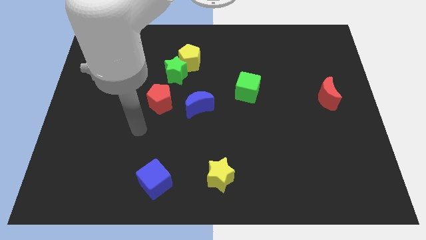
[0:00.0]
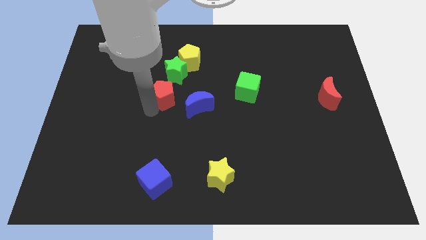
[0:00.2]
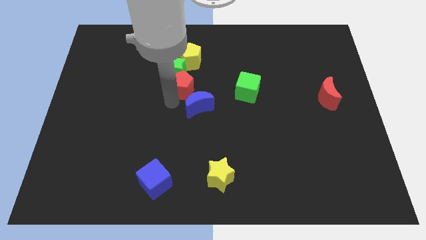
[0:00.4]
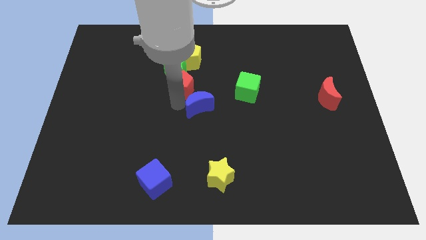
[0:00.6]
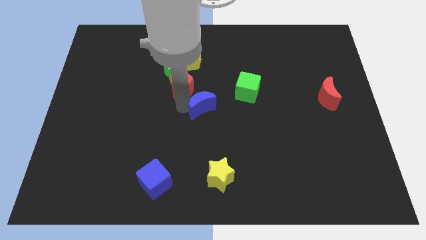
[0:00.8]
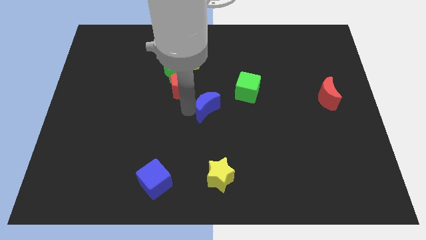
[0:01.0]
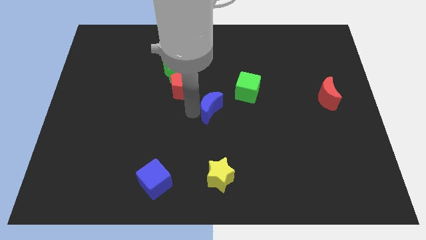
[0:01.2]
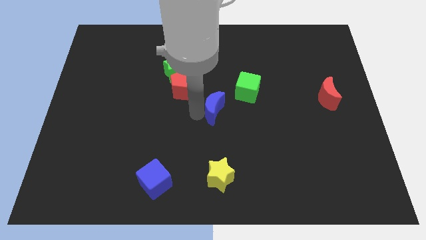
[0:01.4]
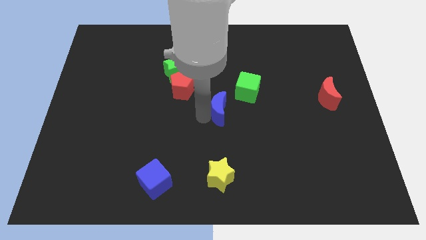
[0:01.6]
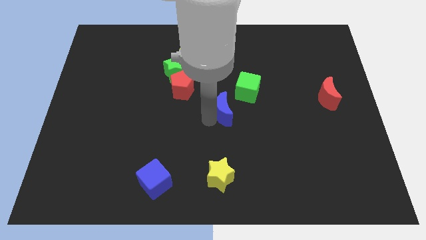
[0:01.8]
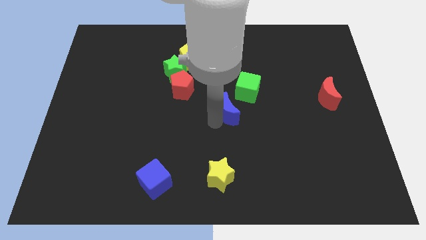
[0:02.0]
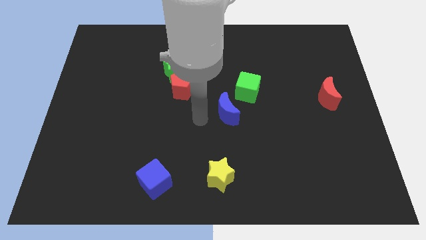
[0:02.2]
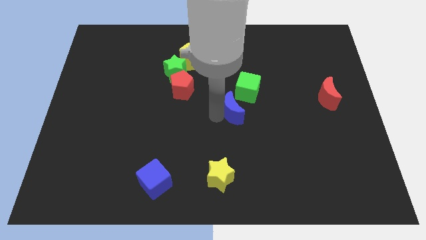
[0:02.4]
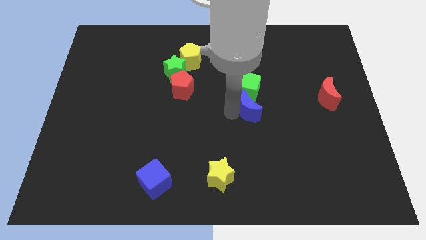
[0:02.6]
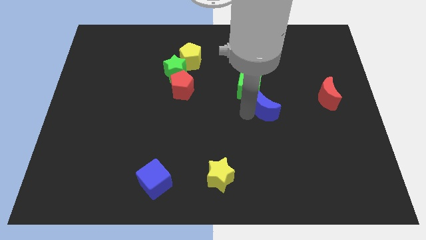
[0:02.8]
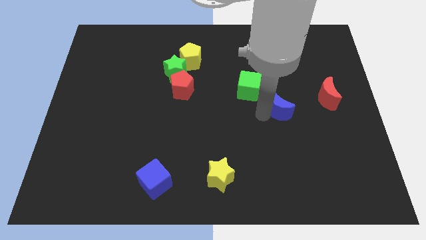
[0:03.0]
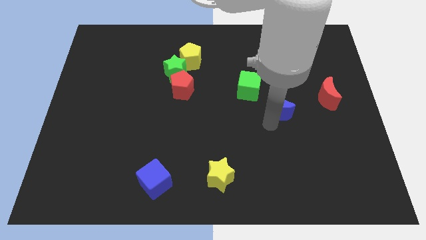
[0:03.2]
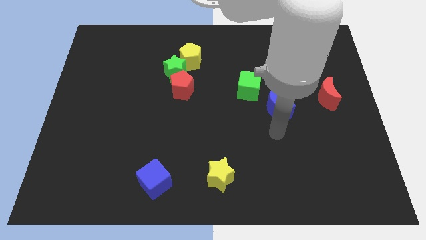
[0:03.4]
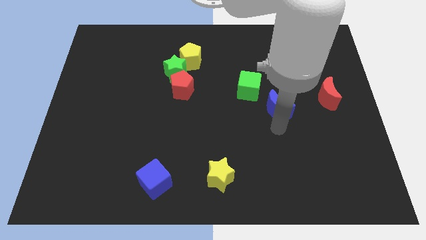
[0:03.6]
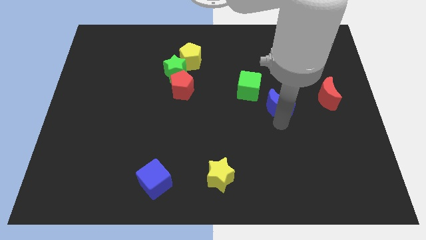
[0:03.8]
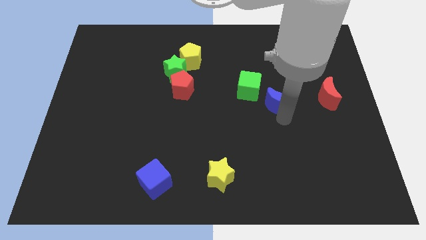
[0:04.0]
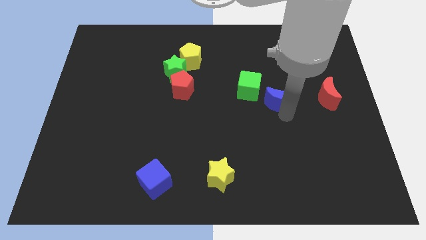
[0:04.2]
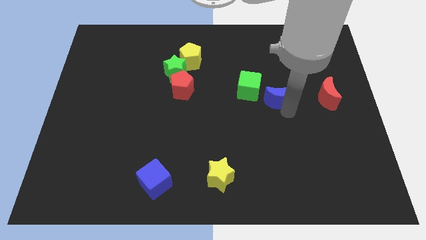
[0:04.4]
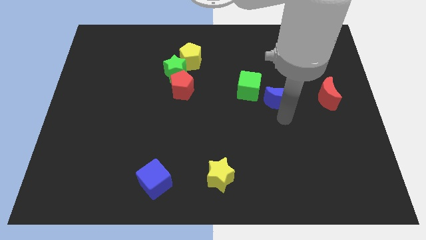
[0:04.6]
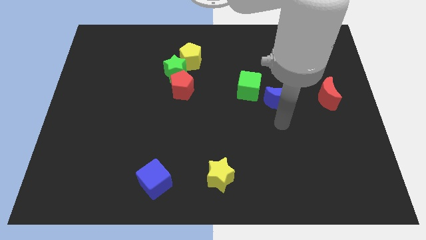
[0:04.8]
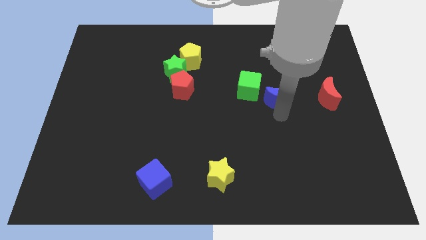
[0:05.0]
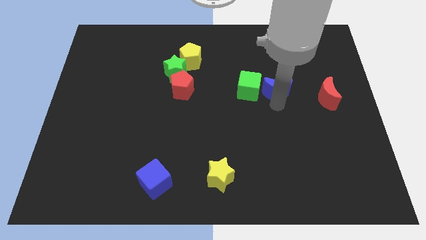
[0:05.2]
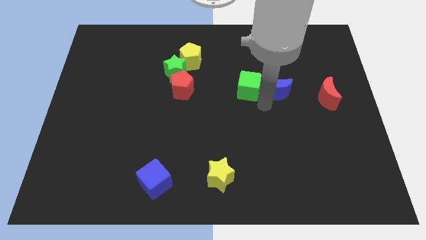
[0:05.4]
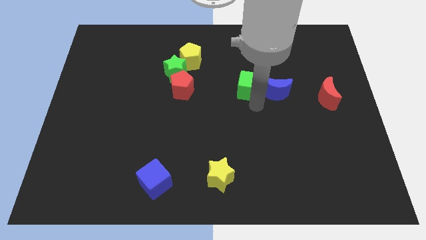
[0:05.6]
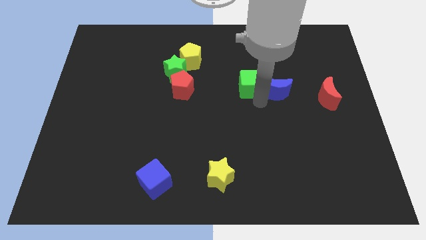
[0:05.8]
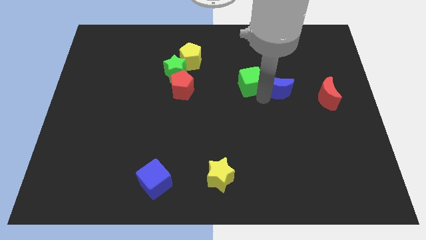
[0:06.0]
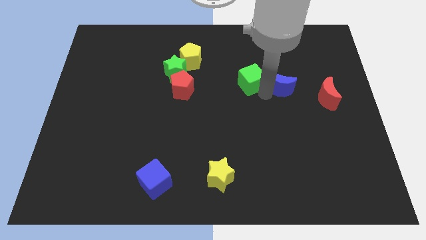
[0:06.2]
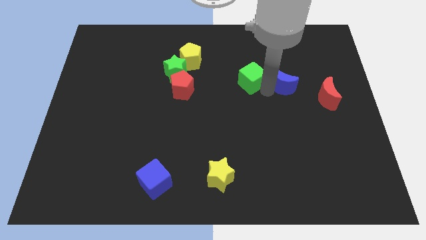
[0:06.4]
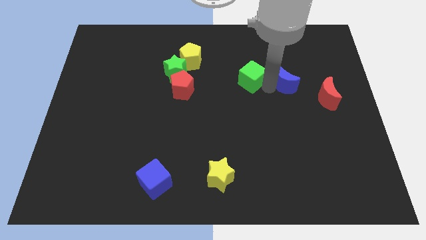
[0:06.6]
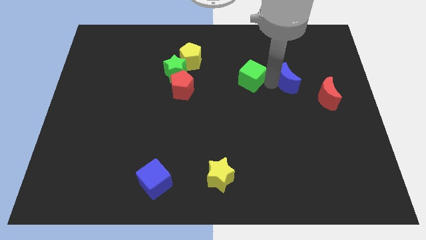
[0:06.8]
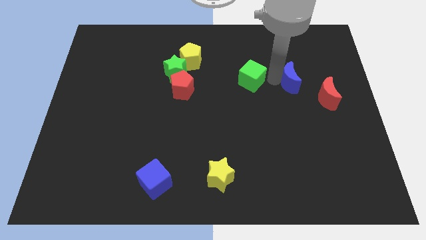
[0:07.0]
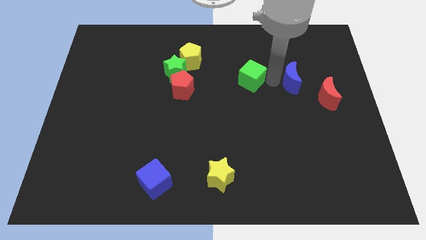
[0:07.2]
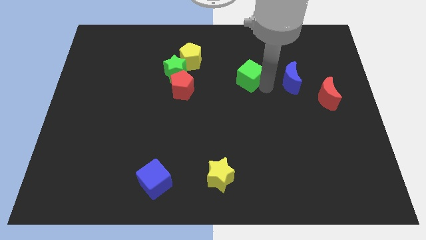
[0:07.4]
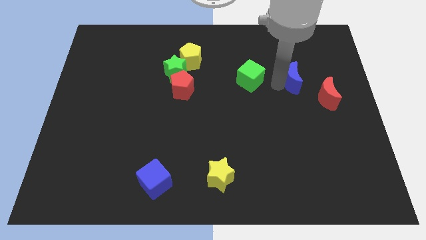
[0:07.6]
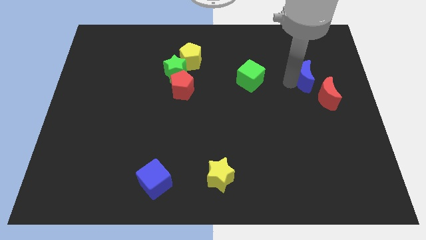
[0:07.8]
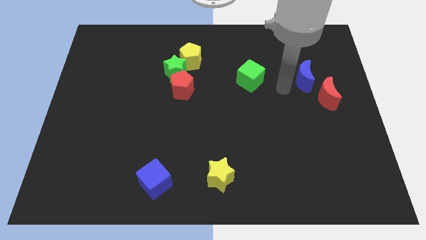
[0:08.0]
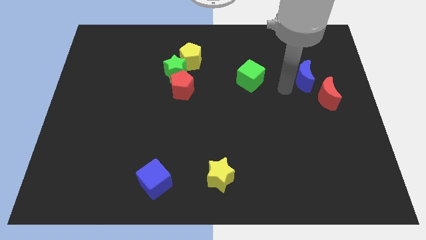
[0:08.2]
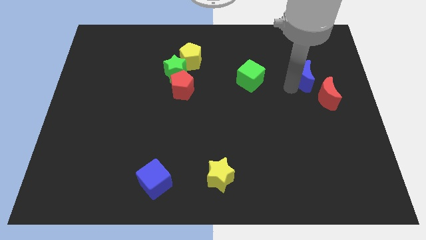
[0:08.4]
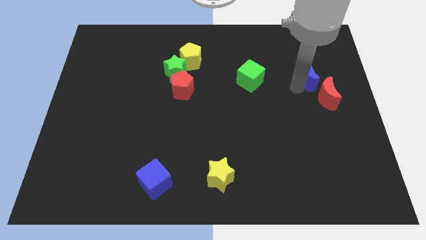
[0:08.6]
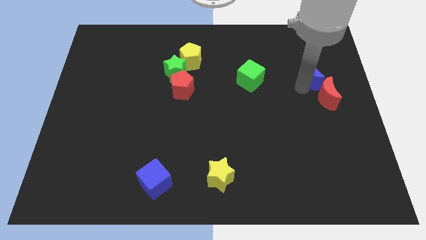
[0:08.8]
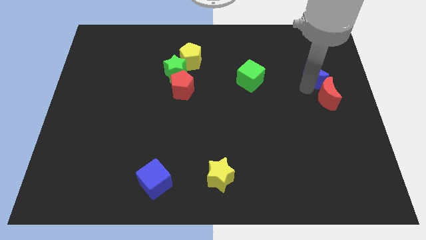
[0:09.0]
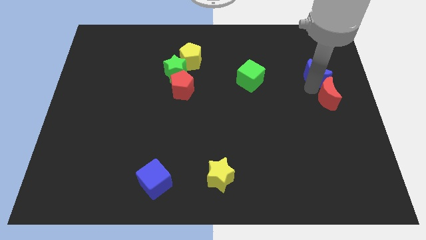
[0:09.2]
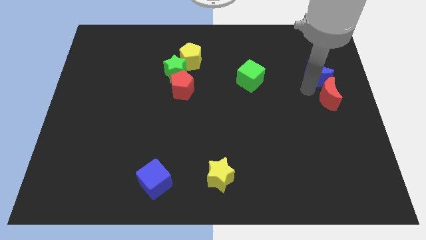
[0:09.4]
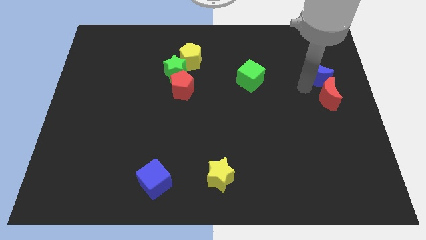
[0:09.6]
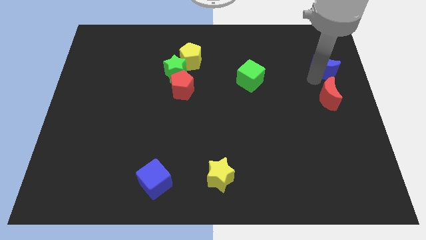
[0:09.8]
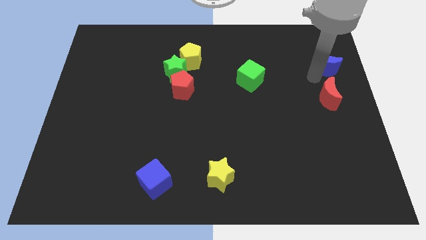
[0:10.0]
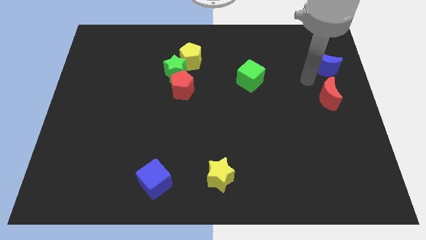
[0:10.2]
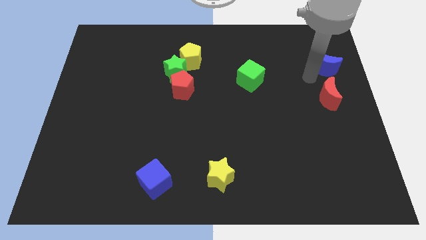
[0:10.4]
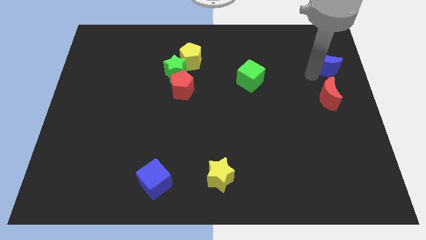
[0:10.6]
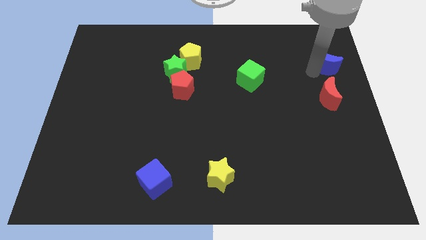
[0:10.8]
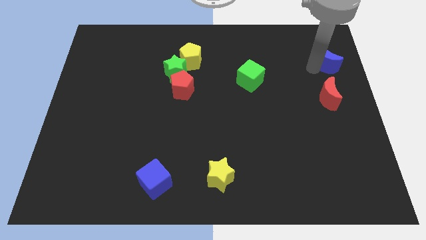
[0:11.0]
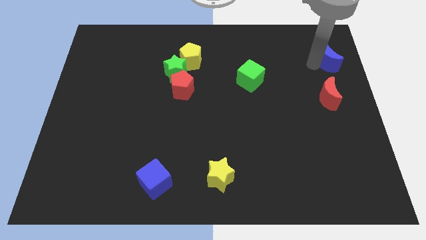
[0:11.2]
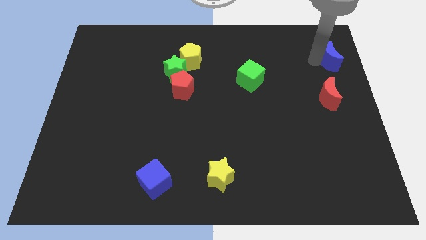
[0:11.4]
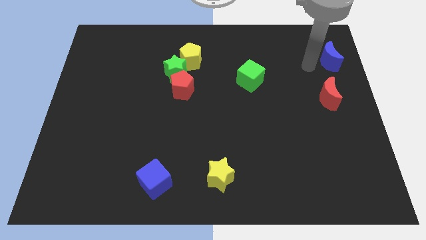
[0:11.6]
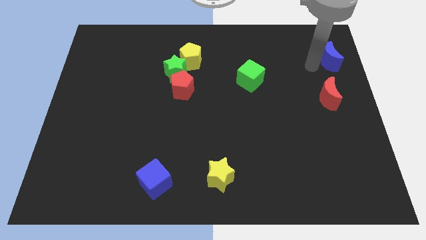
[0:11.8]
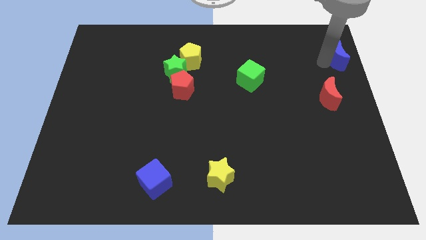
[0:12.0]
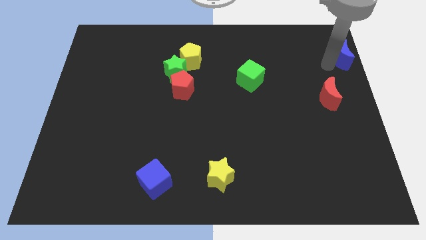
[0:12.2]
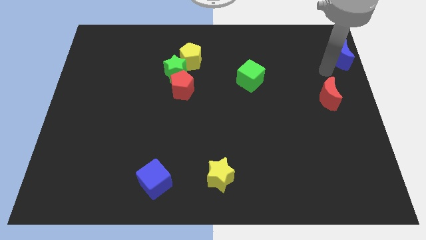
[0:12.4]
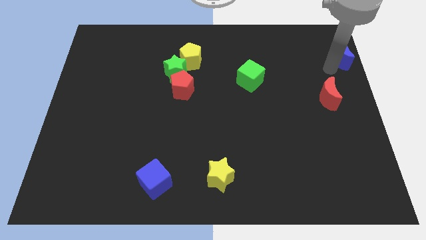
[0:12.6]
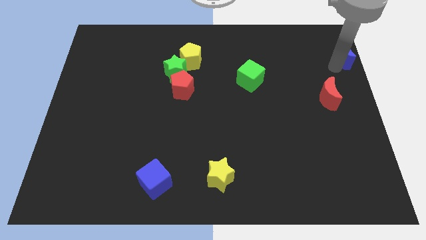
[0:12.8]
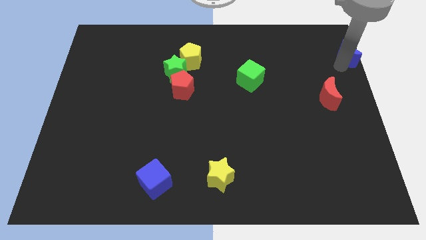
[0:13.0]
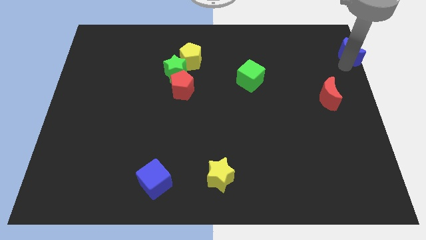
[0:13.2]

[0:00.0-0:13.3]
slide the blue moon to the top right corner

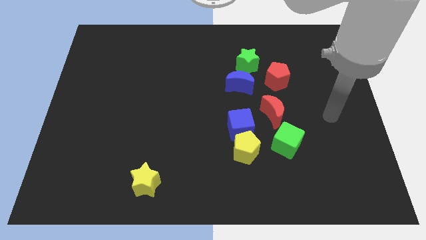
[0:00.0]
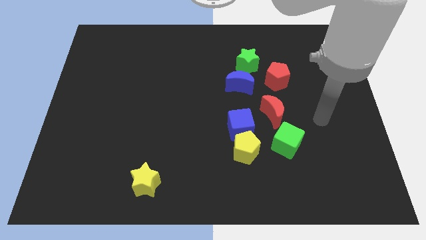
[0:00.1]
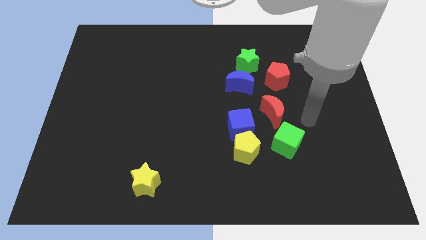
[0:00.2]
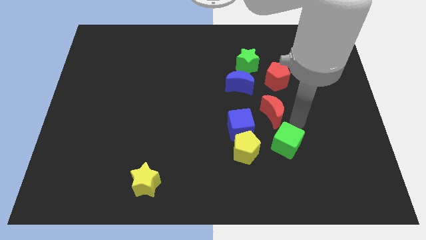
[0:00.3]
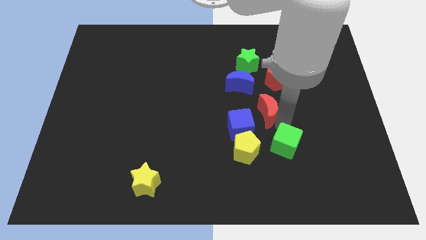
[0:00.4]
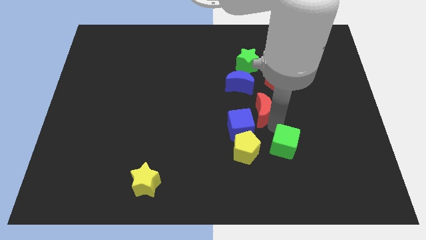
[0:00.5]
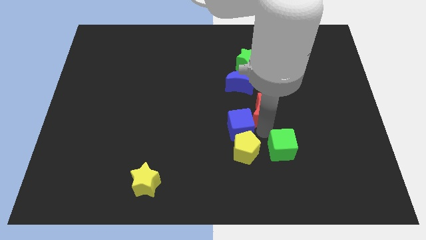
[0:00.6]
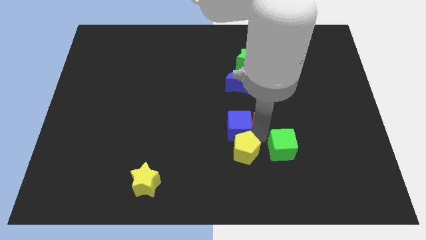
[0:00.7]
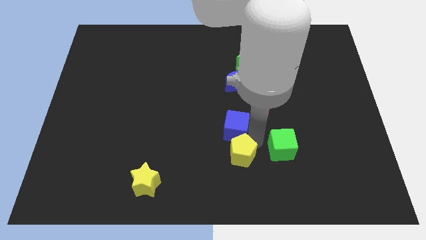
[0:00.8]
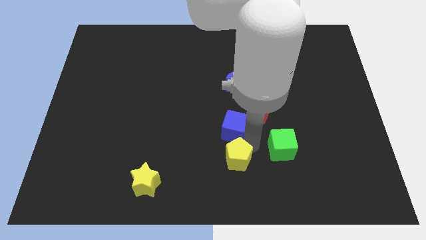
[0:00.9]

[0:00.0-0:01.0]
move the yellow pentagon to the bottom side
